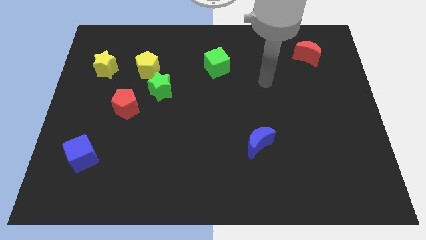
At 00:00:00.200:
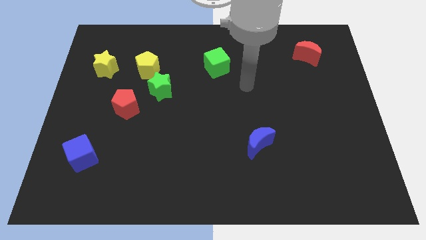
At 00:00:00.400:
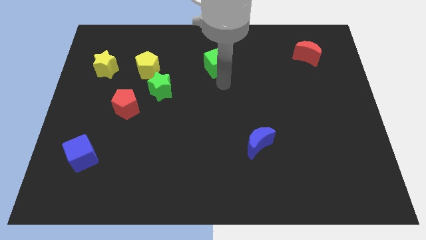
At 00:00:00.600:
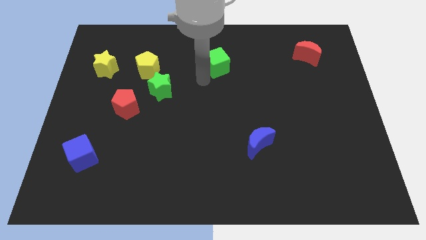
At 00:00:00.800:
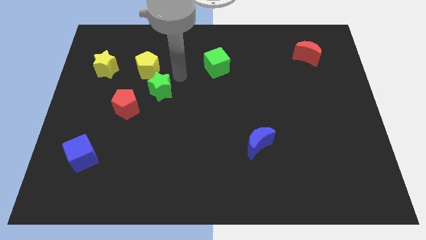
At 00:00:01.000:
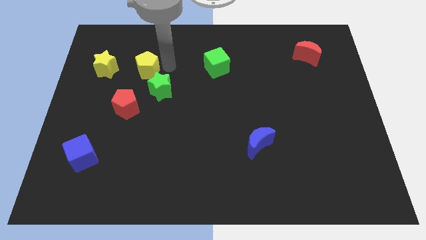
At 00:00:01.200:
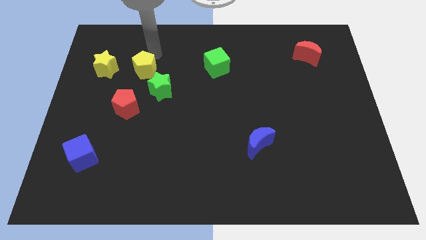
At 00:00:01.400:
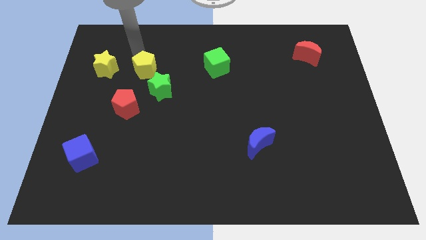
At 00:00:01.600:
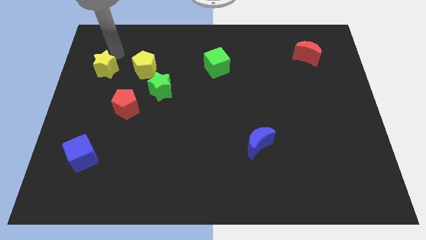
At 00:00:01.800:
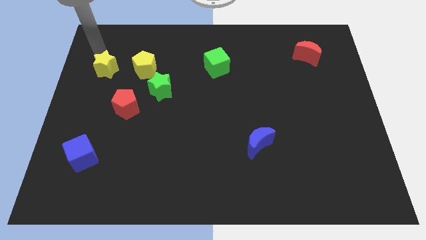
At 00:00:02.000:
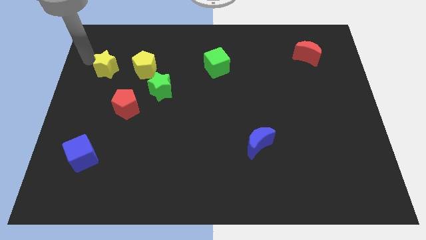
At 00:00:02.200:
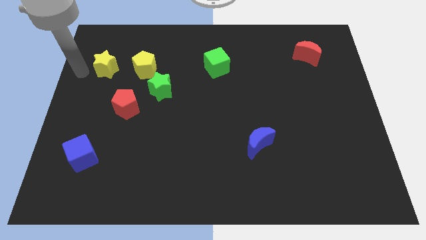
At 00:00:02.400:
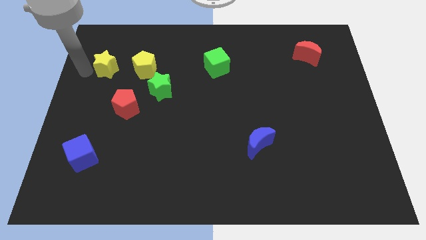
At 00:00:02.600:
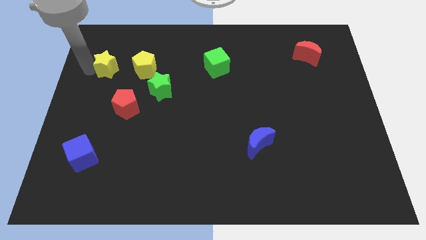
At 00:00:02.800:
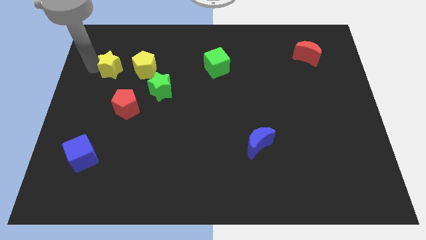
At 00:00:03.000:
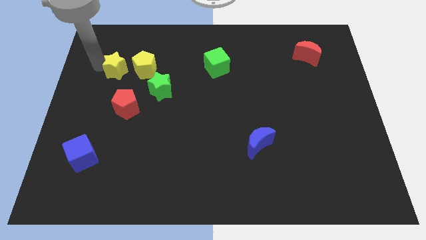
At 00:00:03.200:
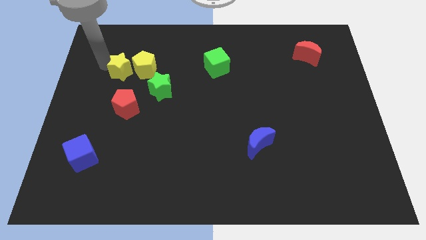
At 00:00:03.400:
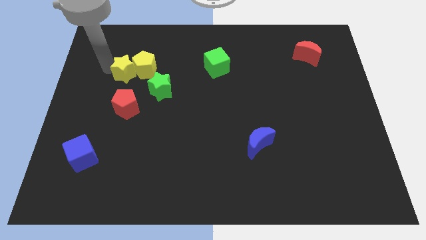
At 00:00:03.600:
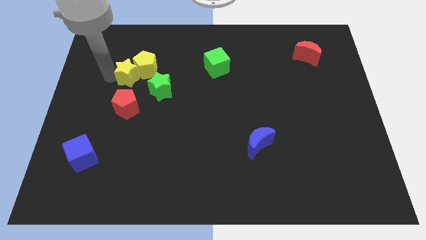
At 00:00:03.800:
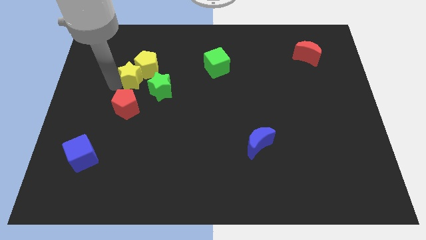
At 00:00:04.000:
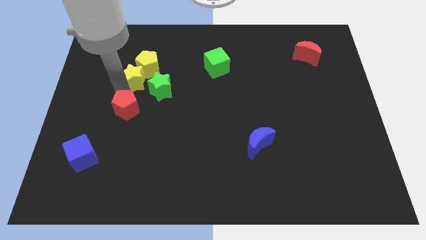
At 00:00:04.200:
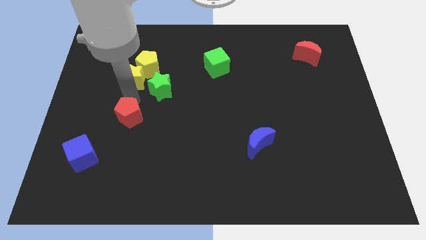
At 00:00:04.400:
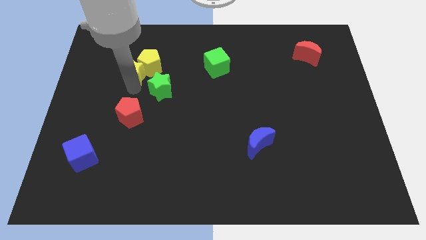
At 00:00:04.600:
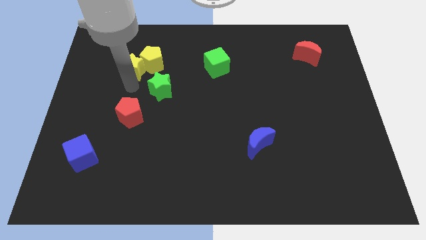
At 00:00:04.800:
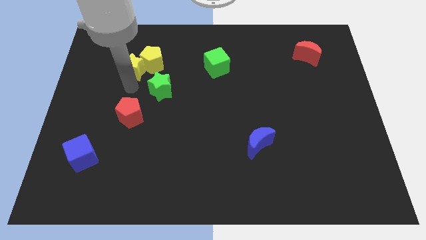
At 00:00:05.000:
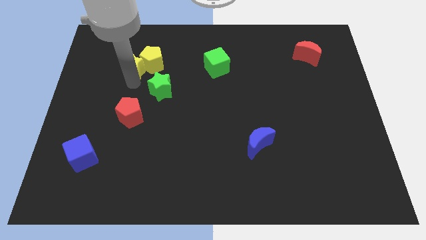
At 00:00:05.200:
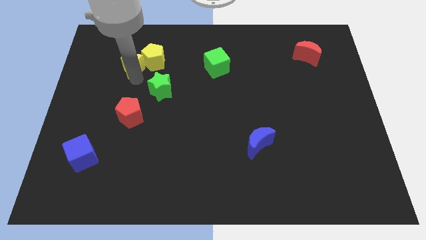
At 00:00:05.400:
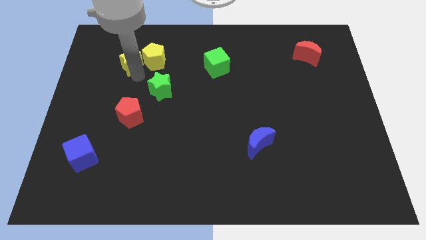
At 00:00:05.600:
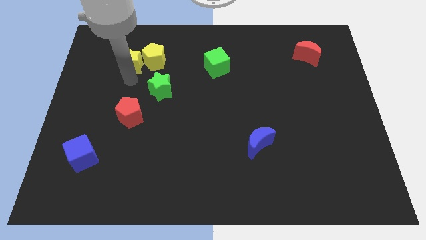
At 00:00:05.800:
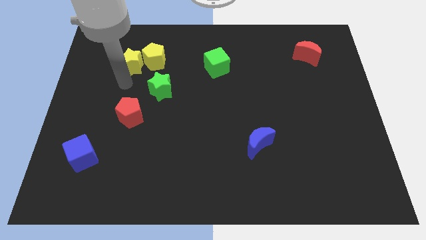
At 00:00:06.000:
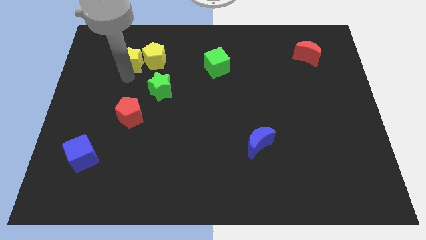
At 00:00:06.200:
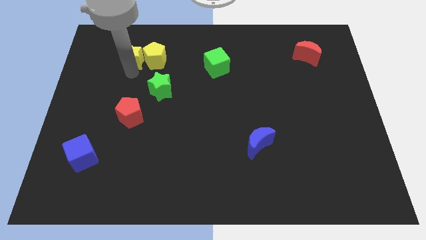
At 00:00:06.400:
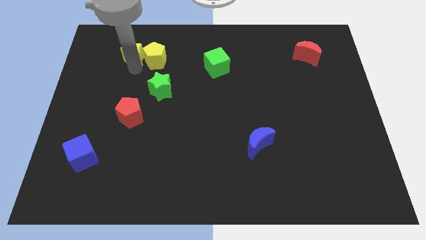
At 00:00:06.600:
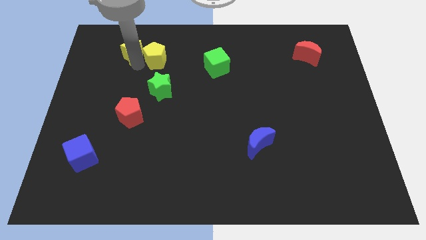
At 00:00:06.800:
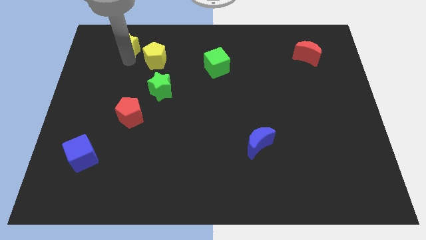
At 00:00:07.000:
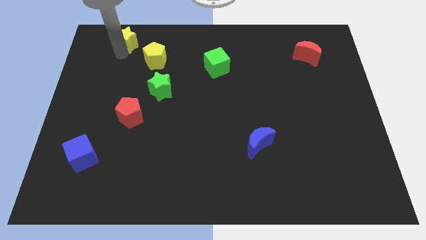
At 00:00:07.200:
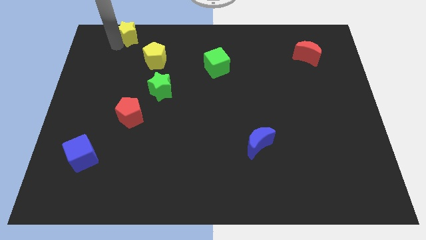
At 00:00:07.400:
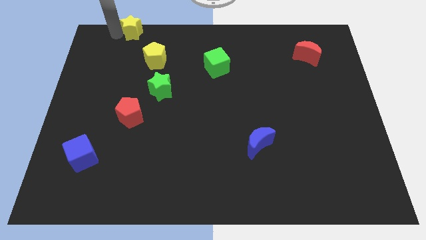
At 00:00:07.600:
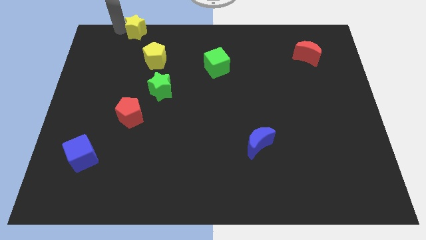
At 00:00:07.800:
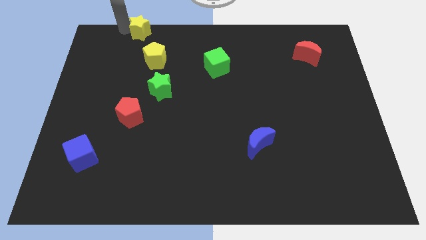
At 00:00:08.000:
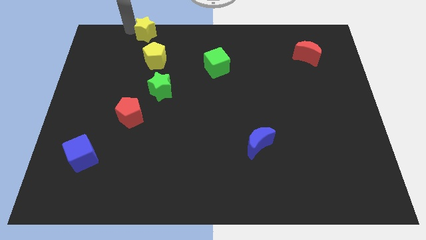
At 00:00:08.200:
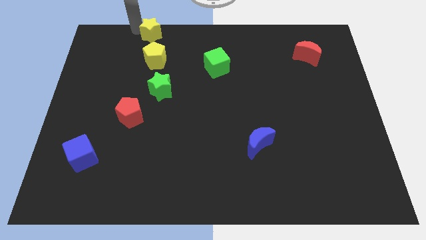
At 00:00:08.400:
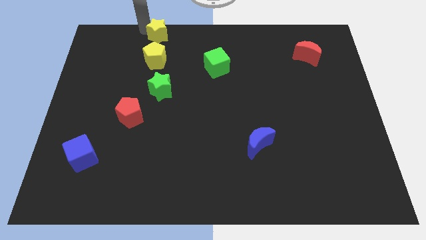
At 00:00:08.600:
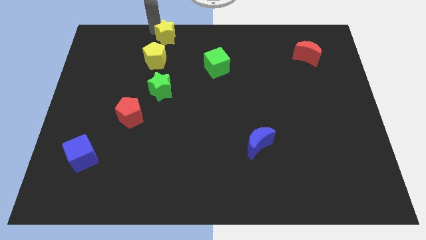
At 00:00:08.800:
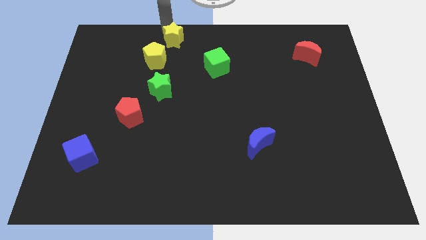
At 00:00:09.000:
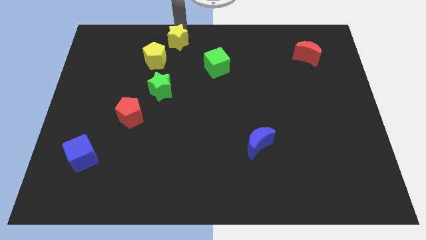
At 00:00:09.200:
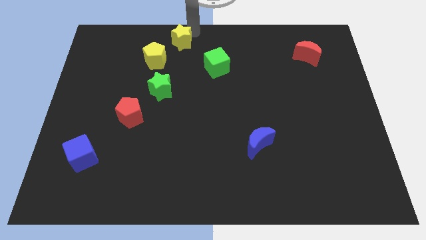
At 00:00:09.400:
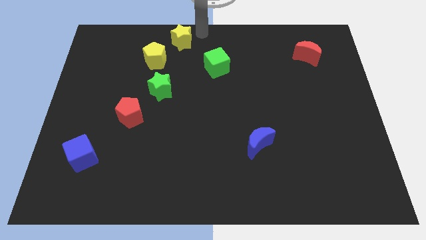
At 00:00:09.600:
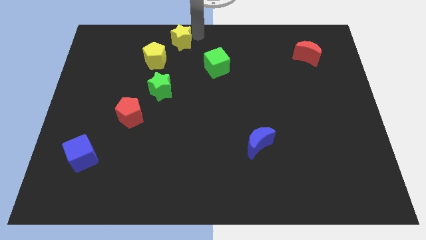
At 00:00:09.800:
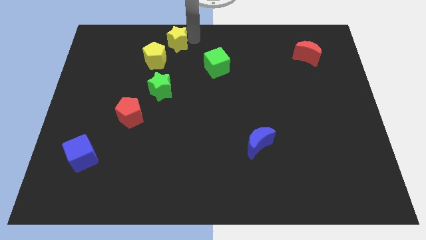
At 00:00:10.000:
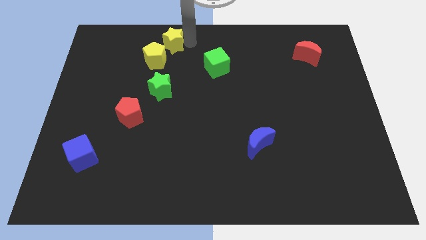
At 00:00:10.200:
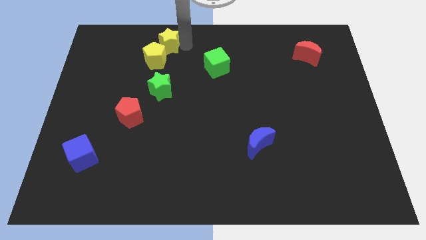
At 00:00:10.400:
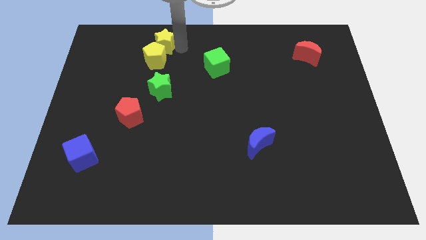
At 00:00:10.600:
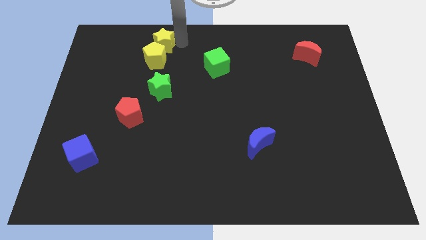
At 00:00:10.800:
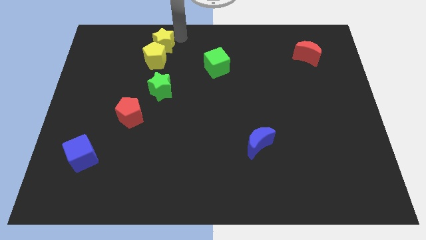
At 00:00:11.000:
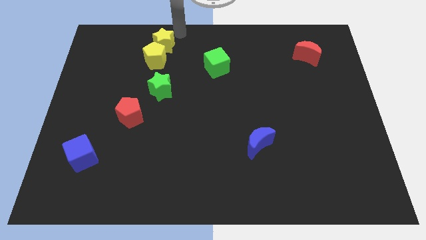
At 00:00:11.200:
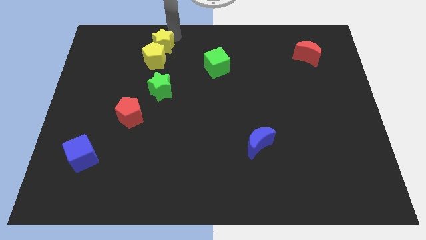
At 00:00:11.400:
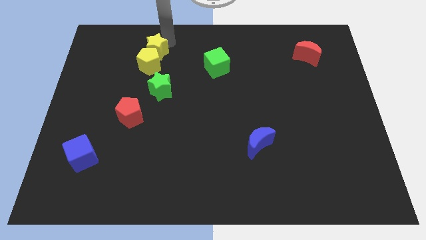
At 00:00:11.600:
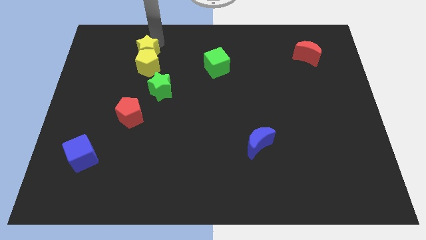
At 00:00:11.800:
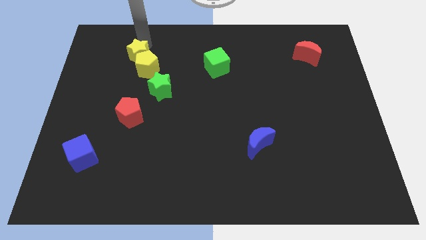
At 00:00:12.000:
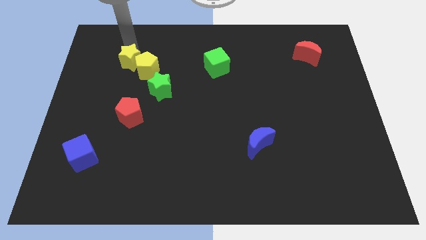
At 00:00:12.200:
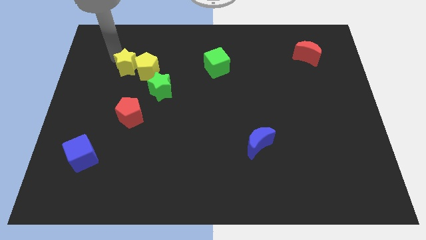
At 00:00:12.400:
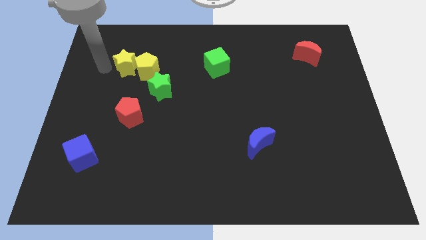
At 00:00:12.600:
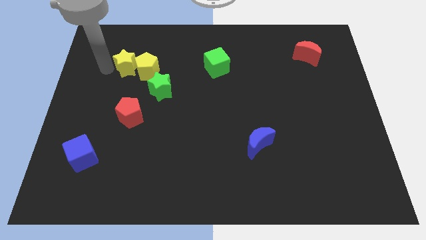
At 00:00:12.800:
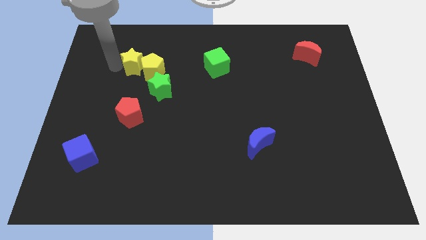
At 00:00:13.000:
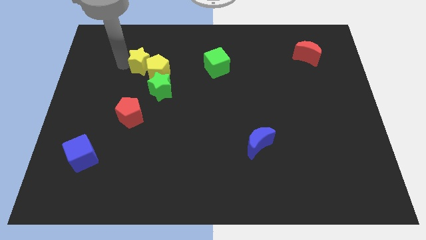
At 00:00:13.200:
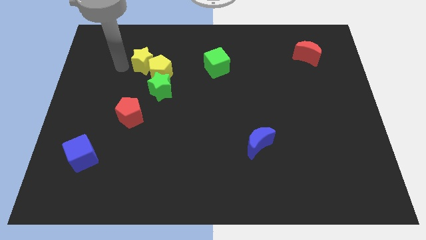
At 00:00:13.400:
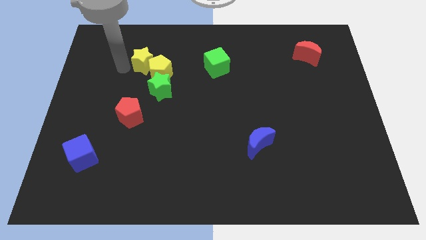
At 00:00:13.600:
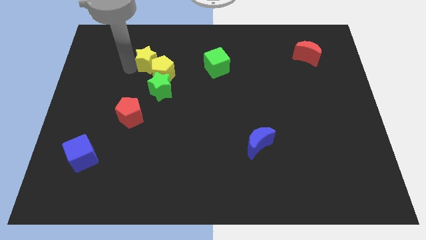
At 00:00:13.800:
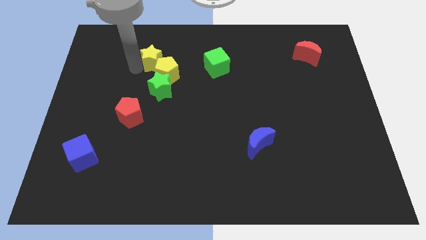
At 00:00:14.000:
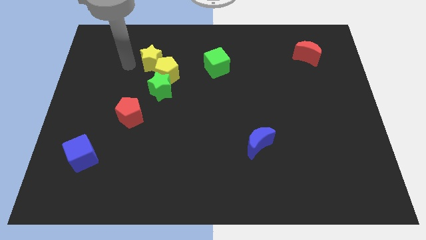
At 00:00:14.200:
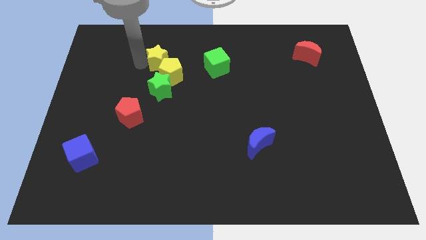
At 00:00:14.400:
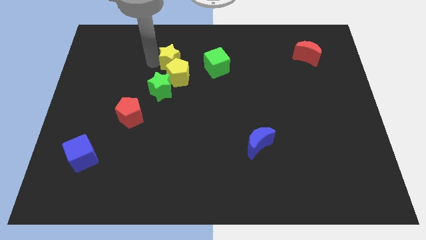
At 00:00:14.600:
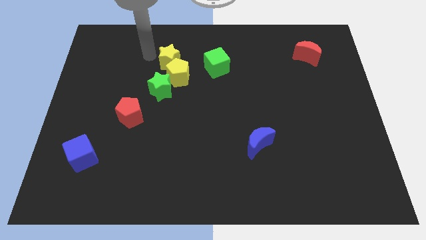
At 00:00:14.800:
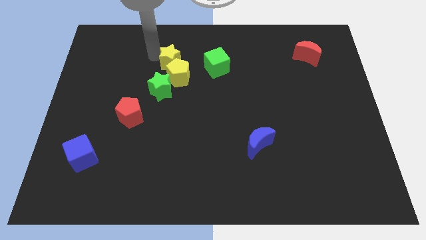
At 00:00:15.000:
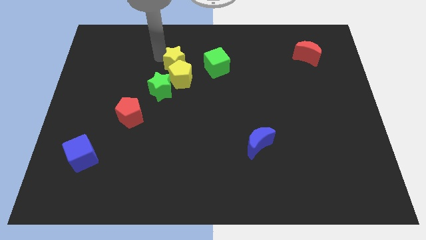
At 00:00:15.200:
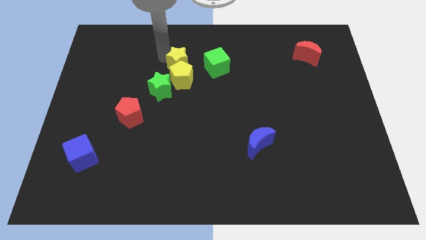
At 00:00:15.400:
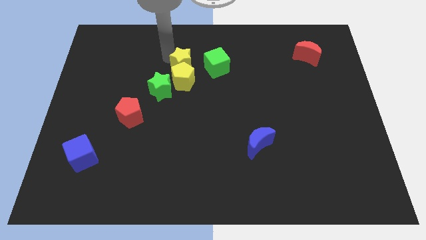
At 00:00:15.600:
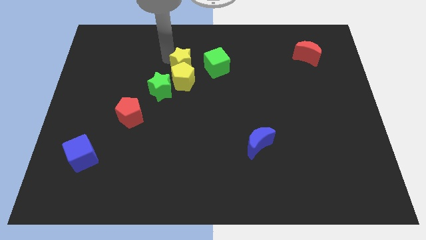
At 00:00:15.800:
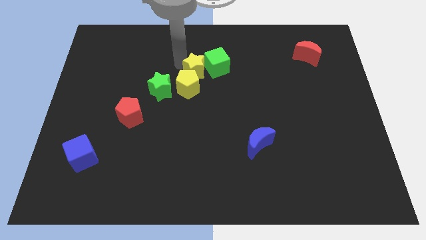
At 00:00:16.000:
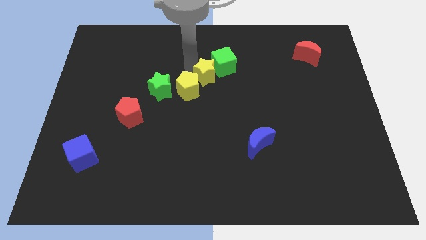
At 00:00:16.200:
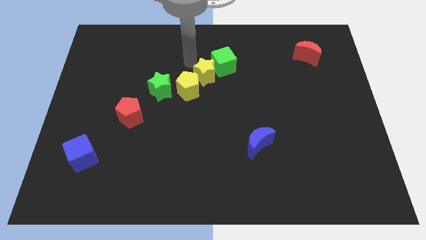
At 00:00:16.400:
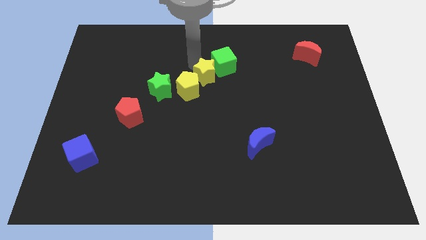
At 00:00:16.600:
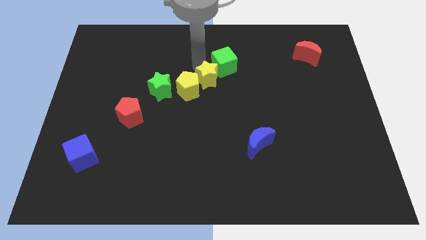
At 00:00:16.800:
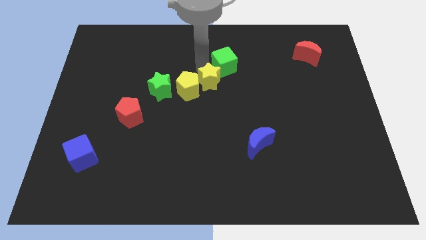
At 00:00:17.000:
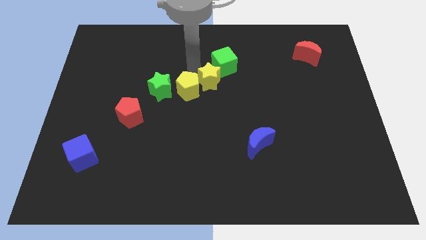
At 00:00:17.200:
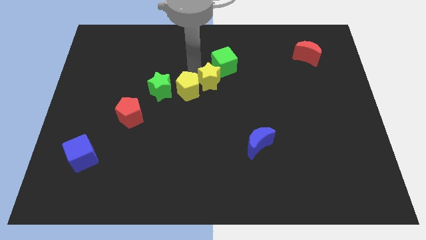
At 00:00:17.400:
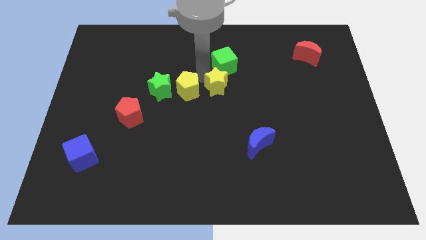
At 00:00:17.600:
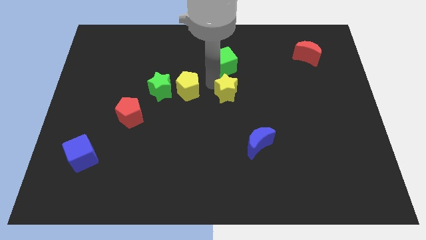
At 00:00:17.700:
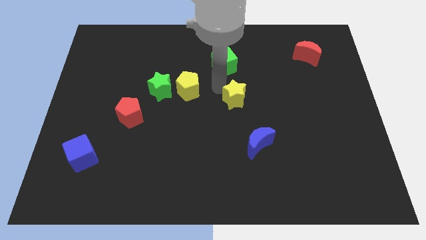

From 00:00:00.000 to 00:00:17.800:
put the yellow star to the top of the blue moon
